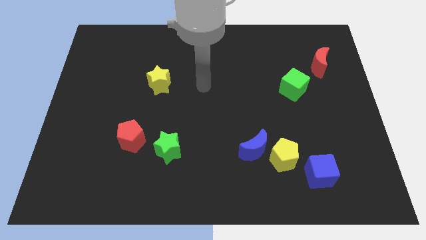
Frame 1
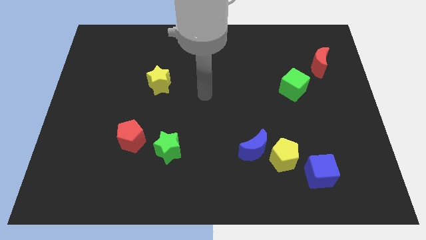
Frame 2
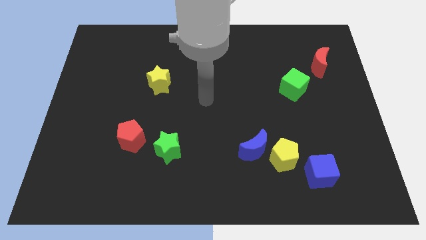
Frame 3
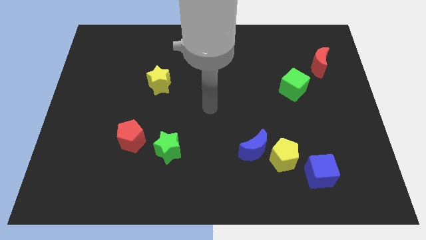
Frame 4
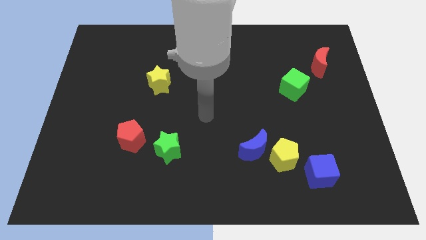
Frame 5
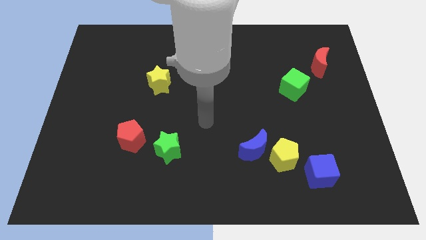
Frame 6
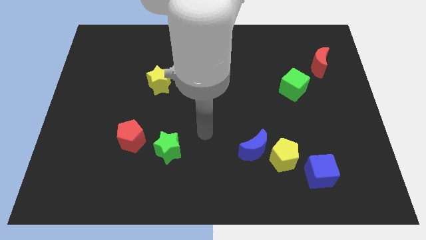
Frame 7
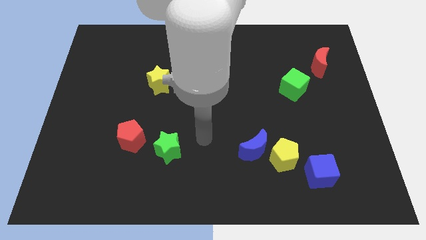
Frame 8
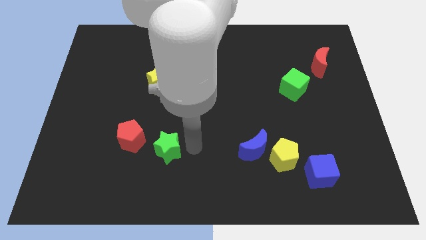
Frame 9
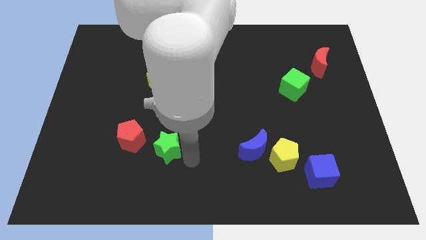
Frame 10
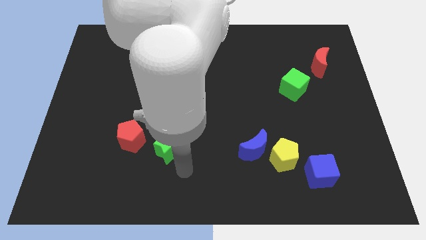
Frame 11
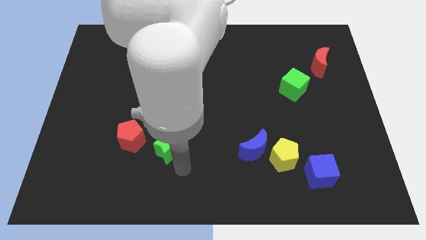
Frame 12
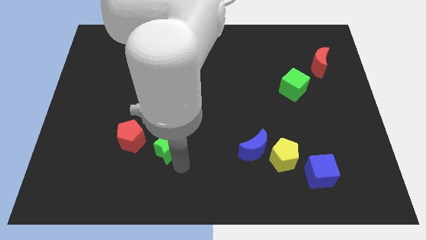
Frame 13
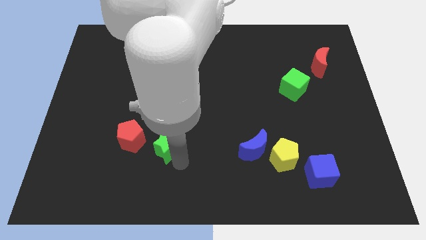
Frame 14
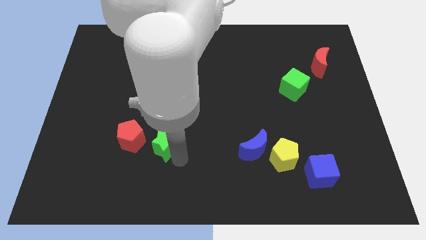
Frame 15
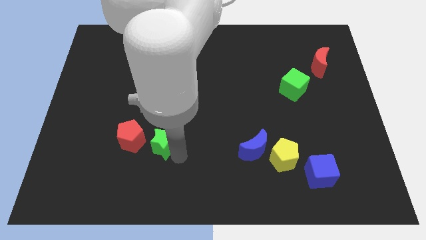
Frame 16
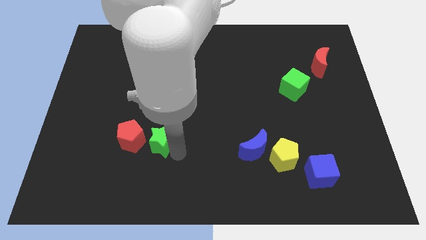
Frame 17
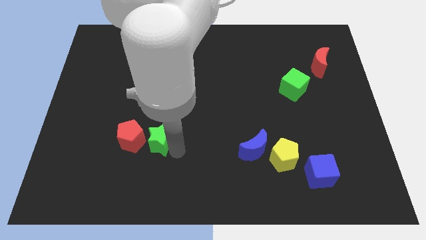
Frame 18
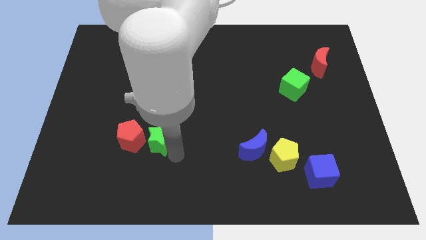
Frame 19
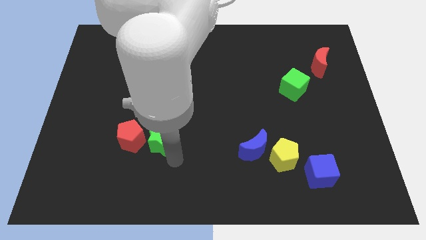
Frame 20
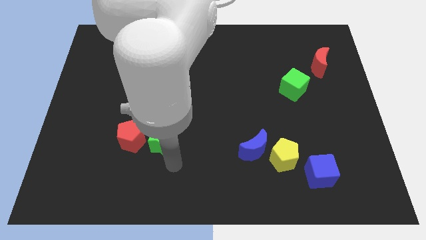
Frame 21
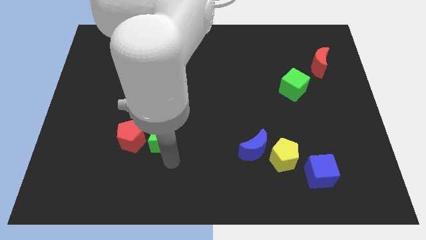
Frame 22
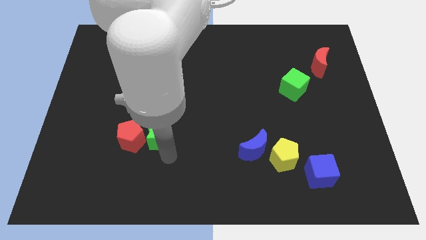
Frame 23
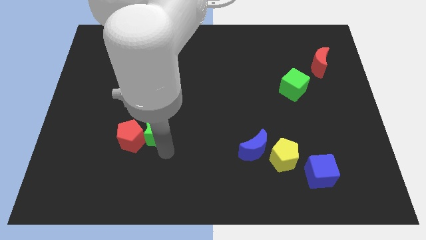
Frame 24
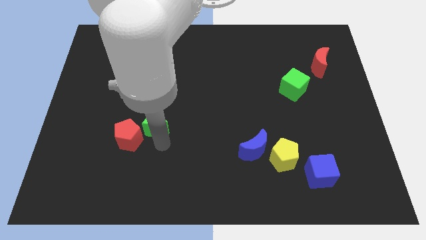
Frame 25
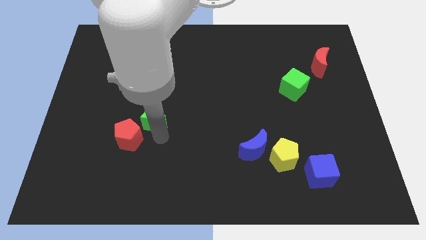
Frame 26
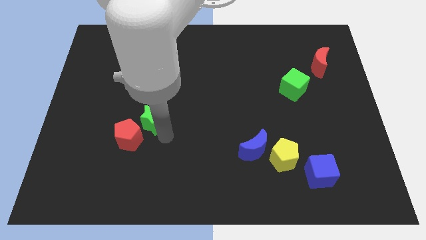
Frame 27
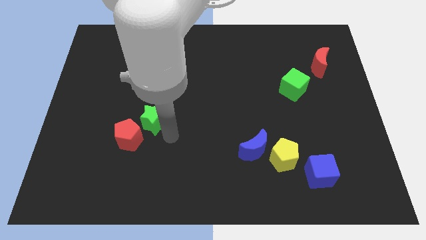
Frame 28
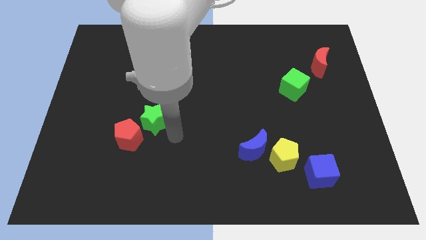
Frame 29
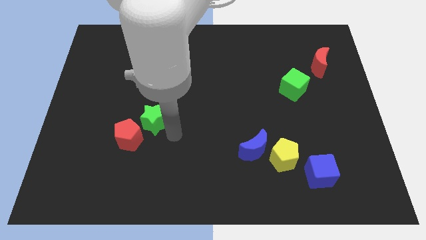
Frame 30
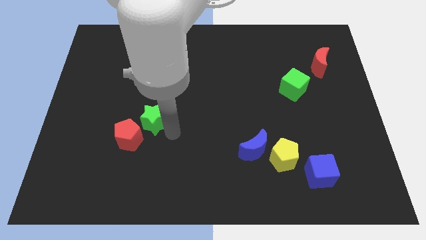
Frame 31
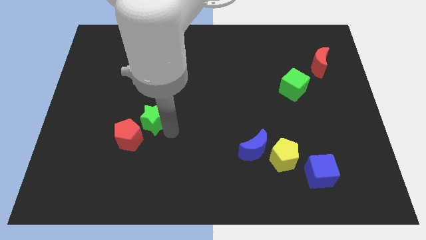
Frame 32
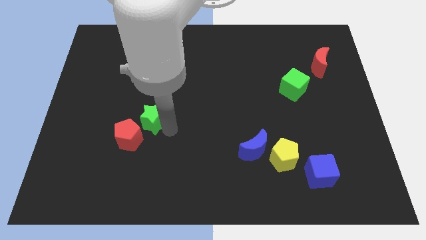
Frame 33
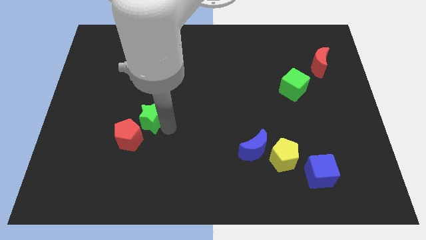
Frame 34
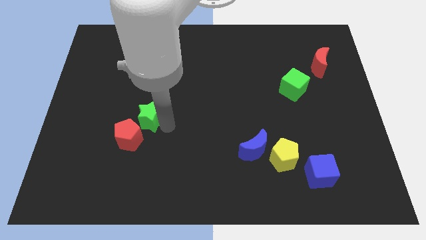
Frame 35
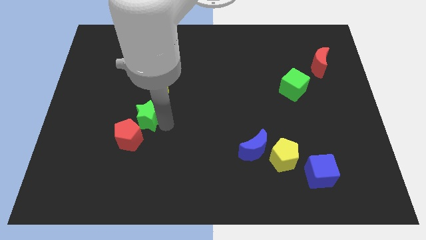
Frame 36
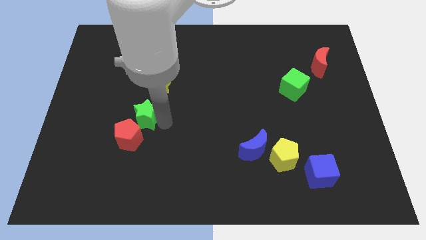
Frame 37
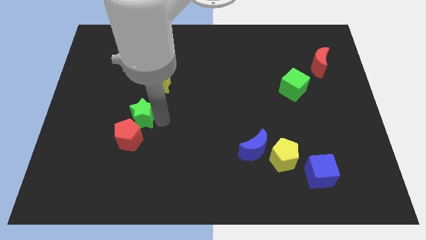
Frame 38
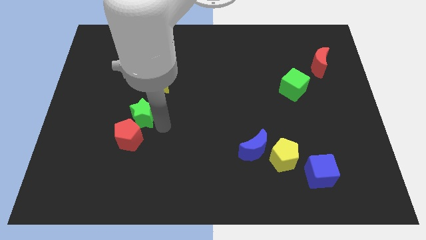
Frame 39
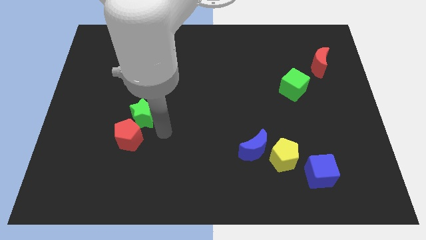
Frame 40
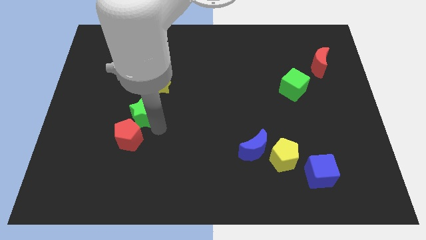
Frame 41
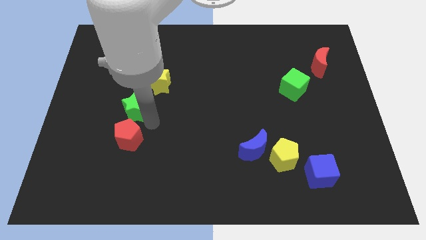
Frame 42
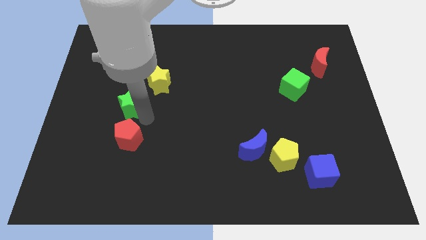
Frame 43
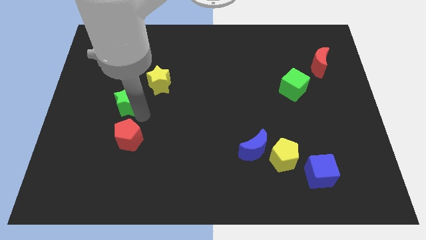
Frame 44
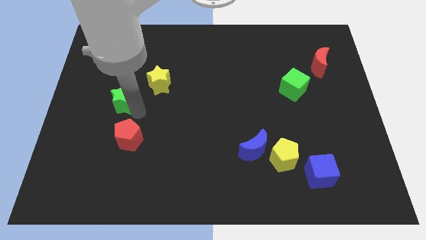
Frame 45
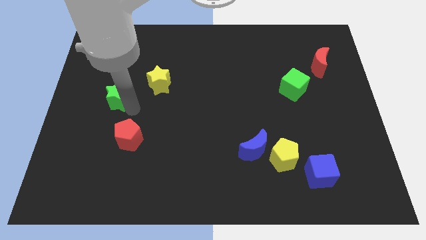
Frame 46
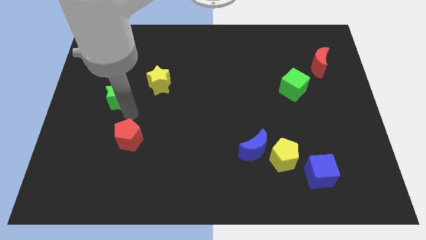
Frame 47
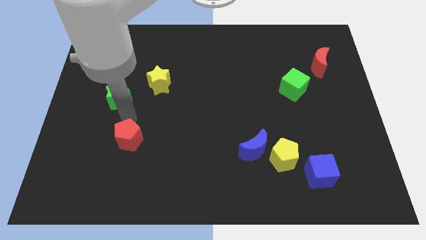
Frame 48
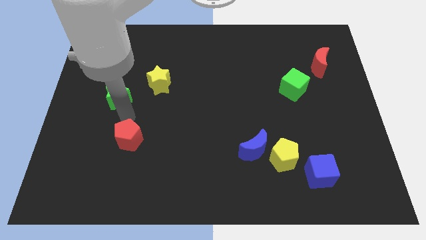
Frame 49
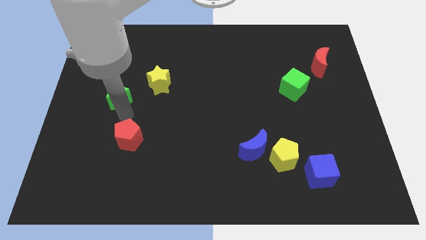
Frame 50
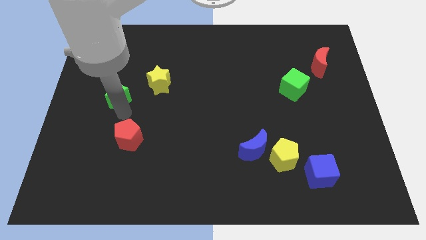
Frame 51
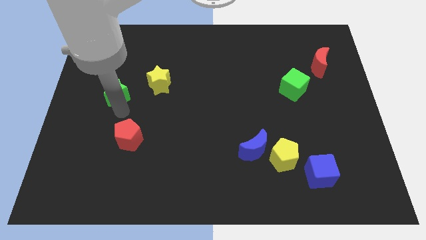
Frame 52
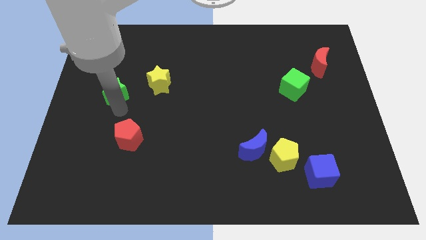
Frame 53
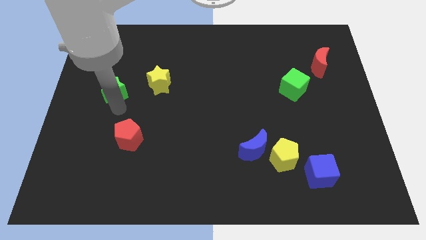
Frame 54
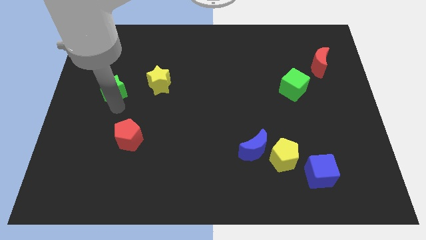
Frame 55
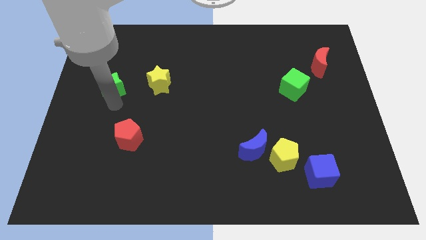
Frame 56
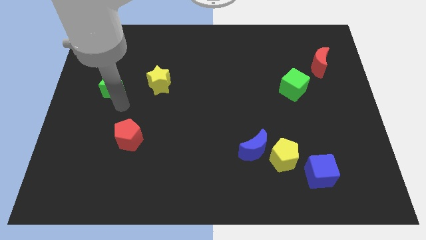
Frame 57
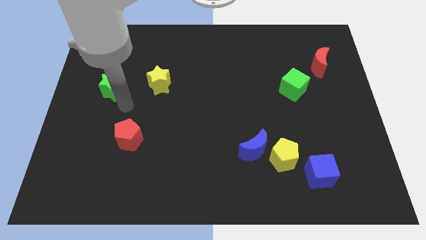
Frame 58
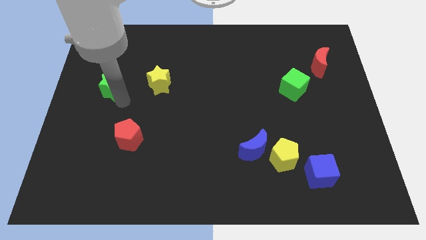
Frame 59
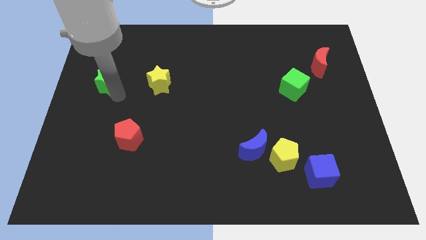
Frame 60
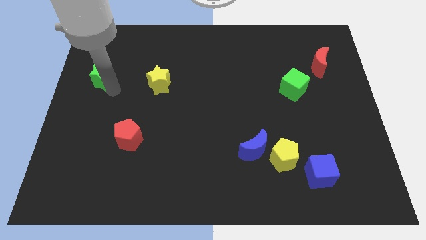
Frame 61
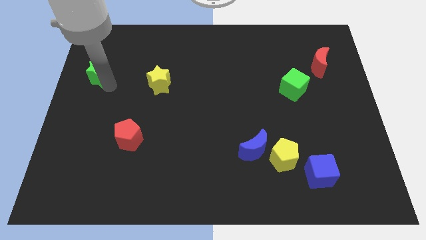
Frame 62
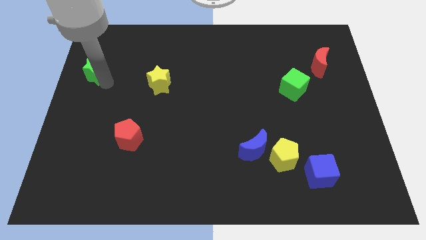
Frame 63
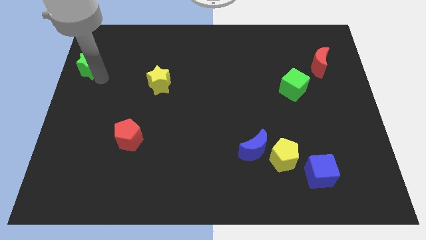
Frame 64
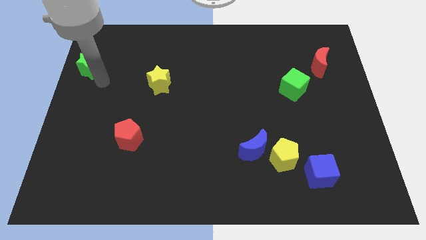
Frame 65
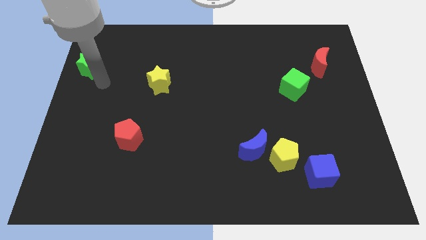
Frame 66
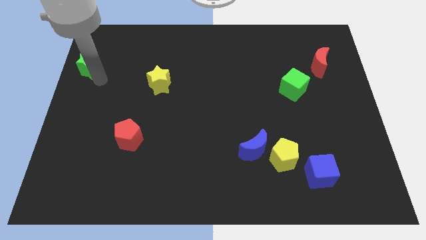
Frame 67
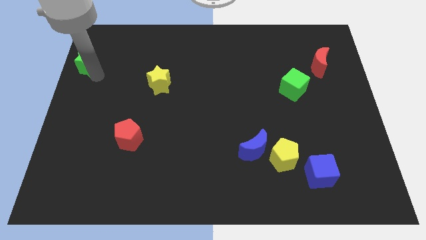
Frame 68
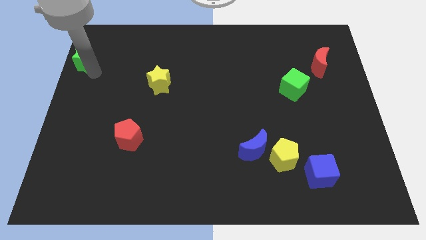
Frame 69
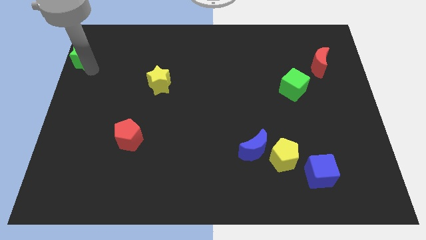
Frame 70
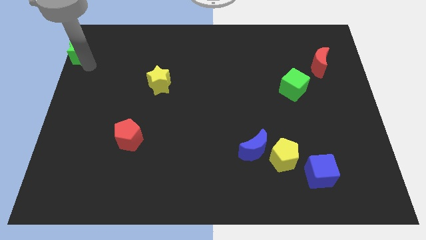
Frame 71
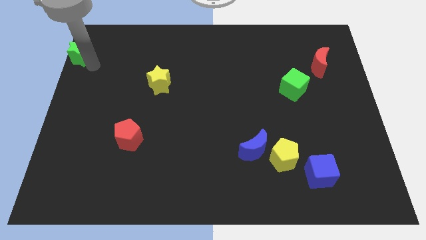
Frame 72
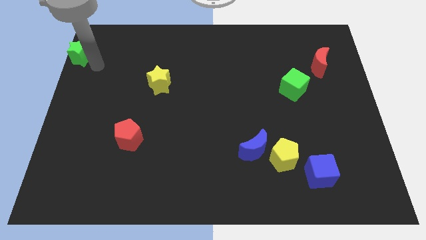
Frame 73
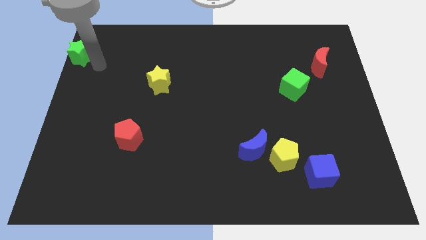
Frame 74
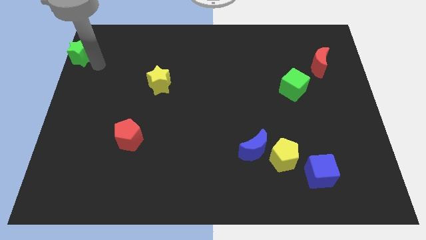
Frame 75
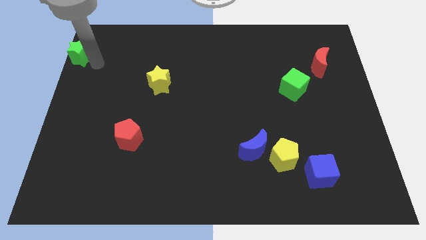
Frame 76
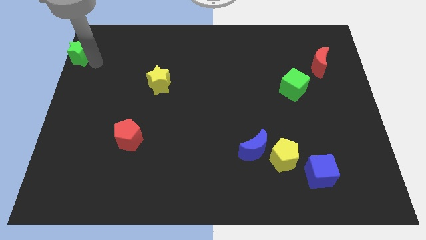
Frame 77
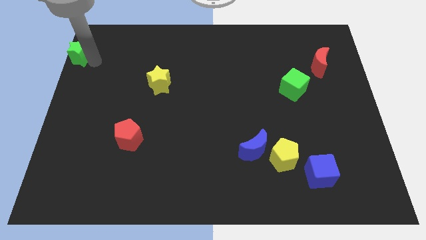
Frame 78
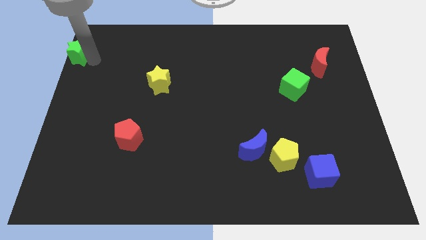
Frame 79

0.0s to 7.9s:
put the green star to the upper left corner
